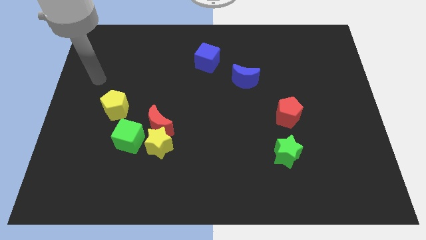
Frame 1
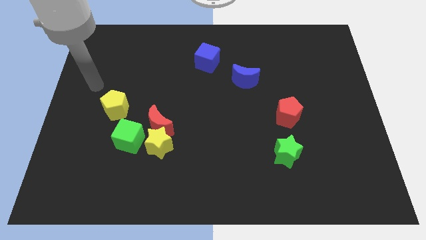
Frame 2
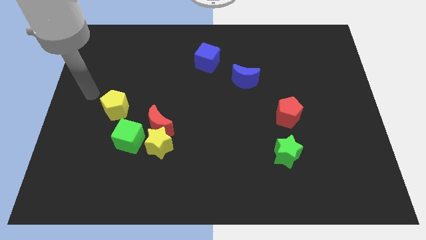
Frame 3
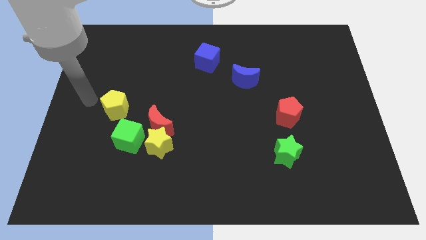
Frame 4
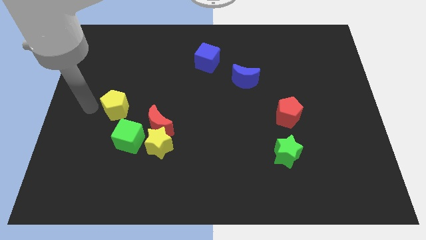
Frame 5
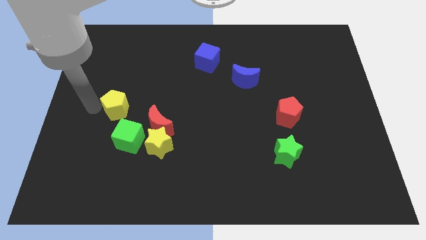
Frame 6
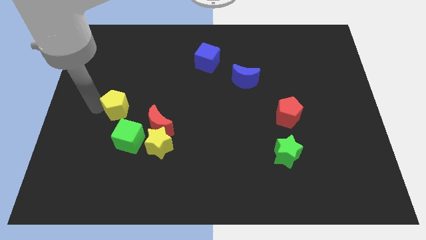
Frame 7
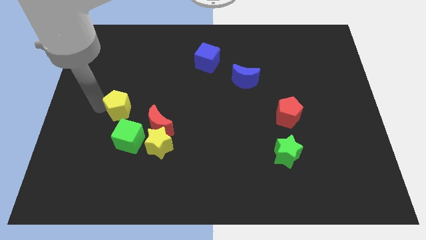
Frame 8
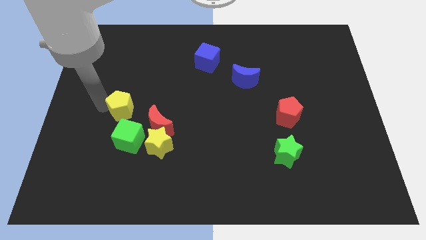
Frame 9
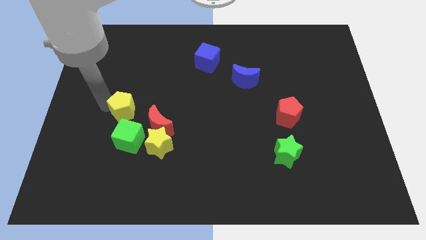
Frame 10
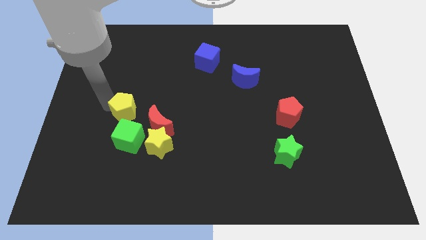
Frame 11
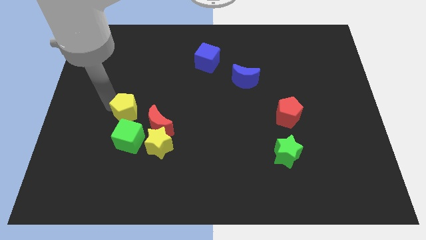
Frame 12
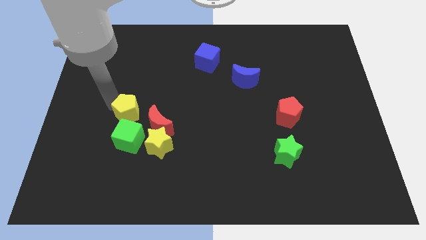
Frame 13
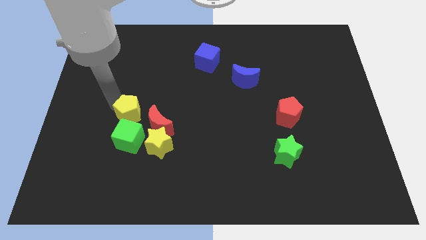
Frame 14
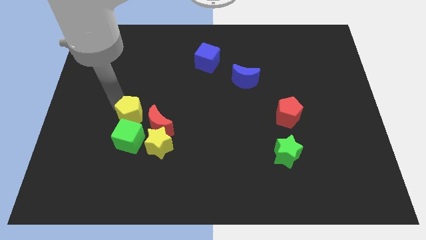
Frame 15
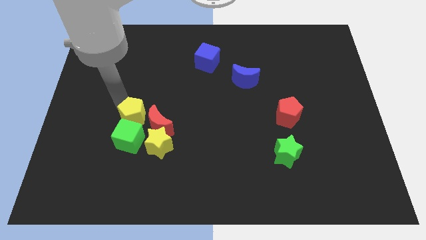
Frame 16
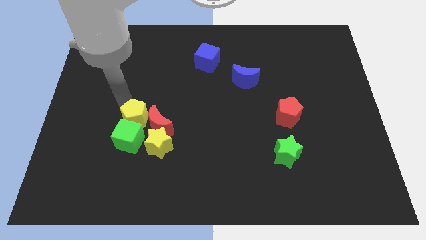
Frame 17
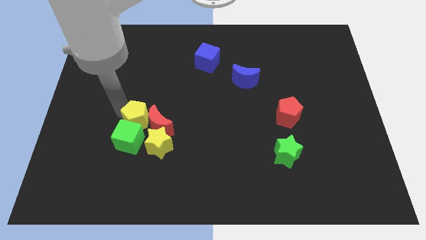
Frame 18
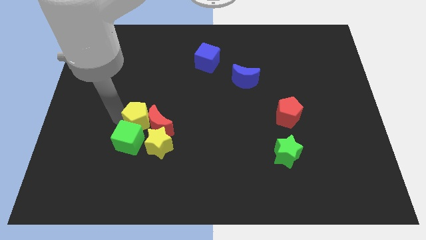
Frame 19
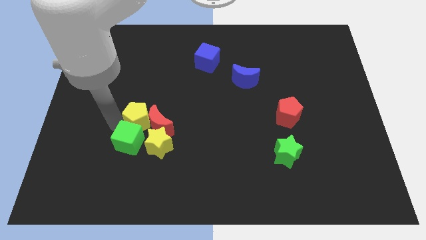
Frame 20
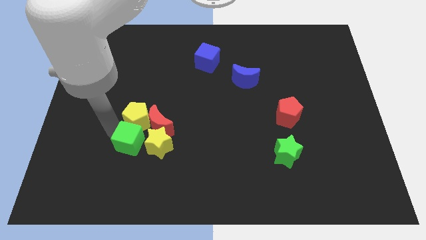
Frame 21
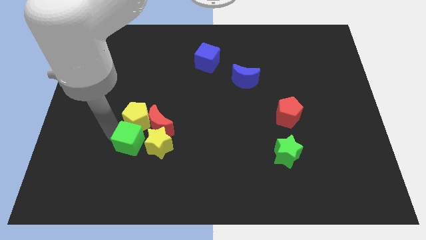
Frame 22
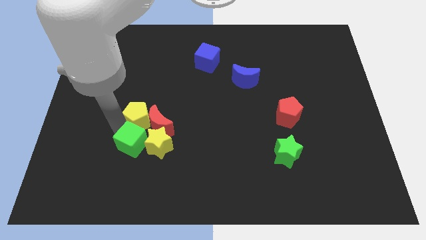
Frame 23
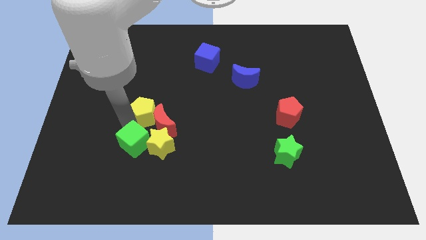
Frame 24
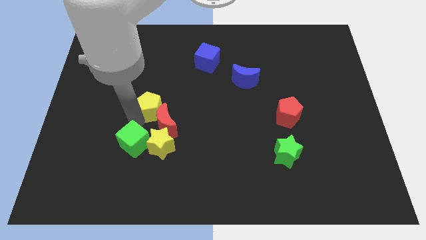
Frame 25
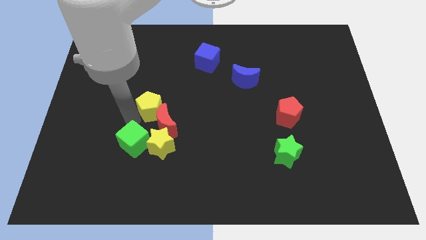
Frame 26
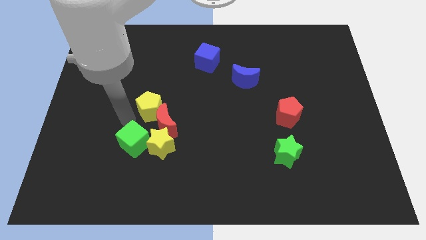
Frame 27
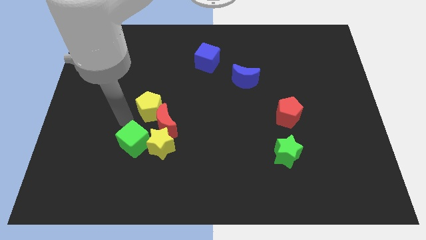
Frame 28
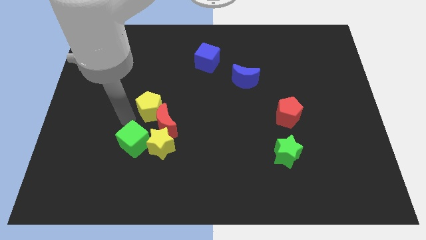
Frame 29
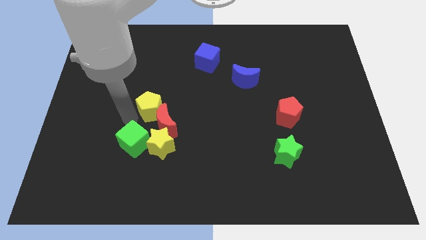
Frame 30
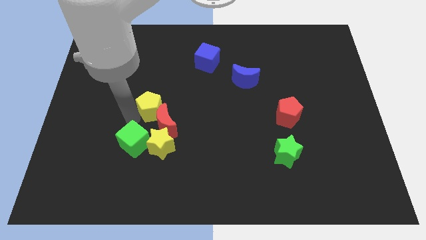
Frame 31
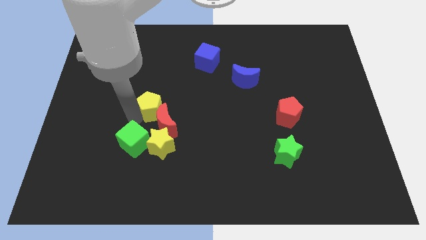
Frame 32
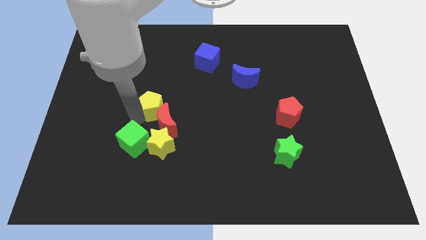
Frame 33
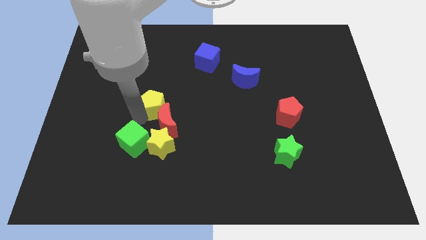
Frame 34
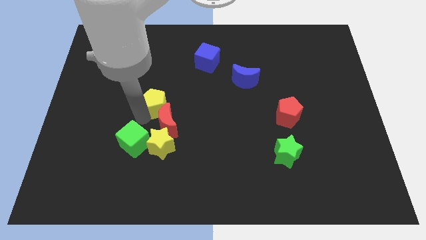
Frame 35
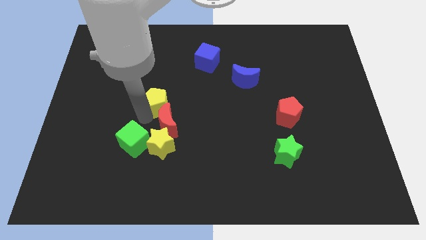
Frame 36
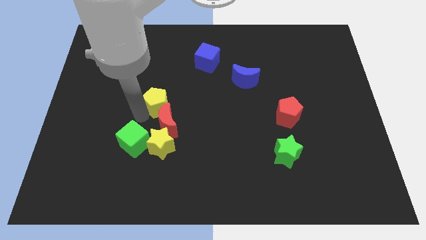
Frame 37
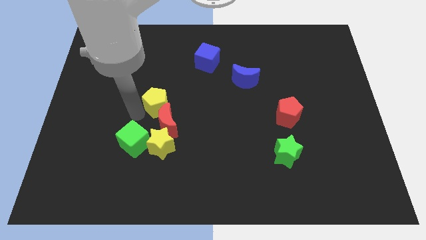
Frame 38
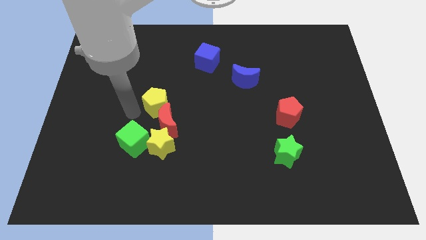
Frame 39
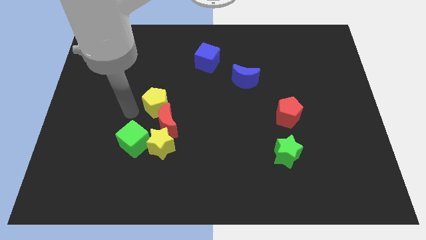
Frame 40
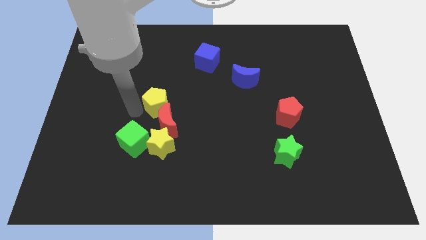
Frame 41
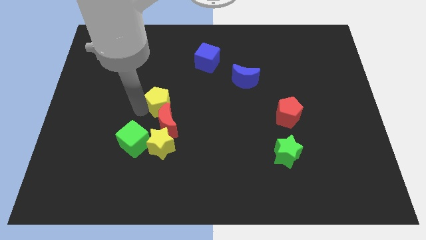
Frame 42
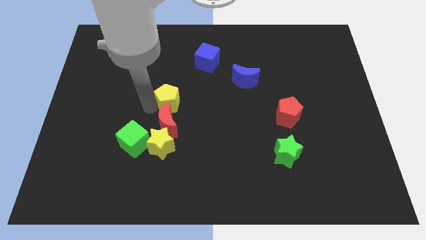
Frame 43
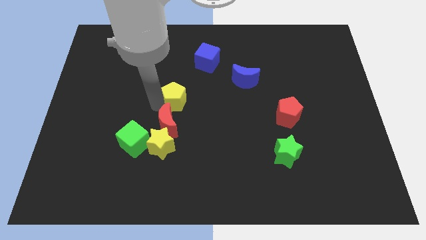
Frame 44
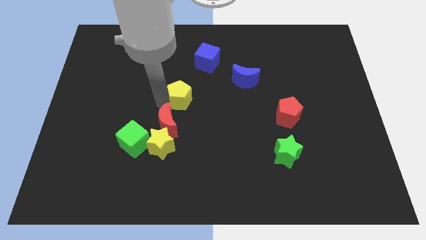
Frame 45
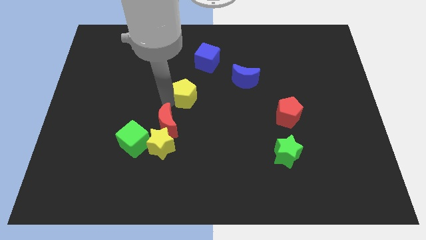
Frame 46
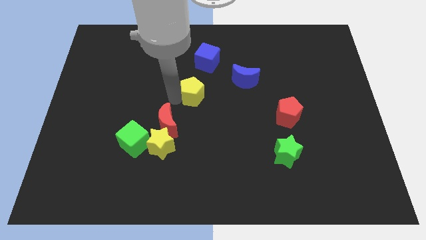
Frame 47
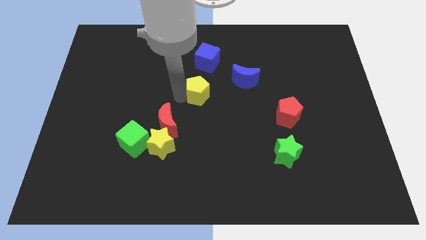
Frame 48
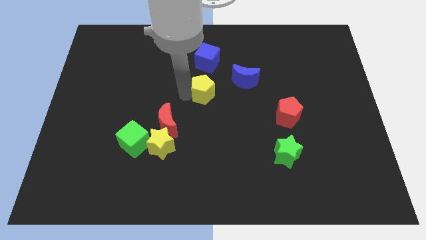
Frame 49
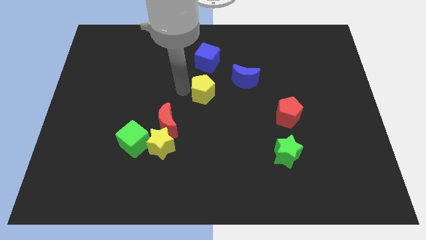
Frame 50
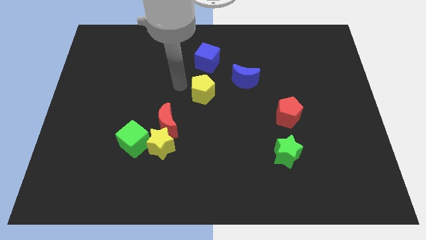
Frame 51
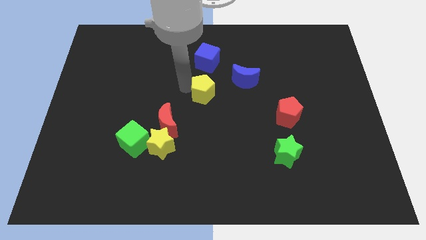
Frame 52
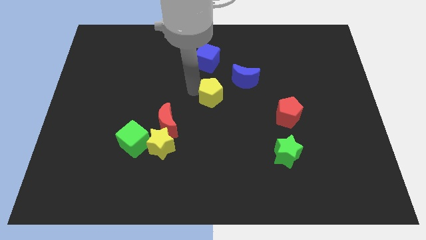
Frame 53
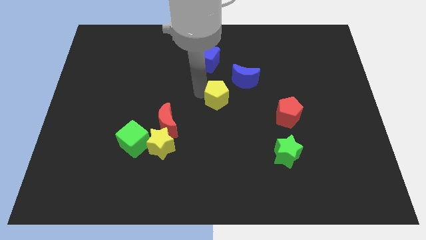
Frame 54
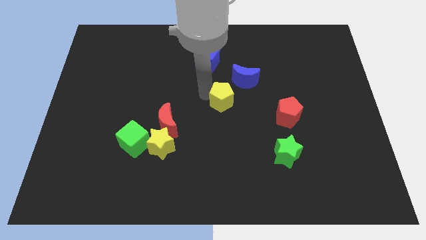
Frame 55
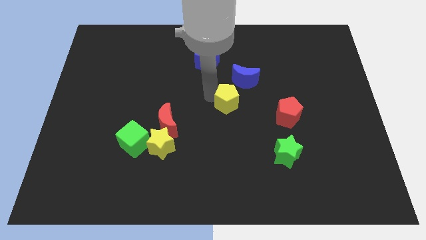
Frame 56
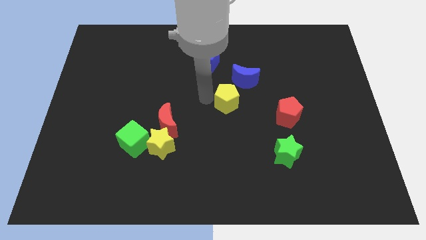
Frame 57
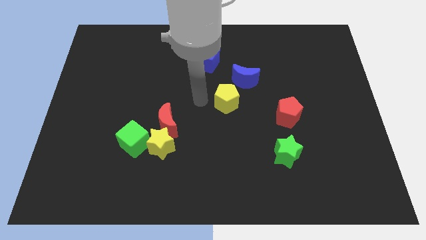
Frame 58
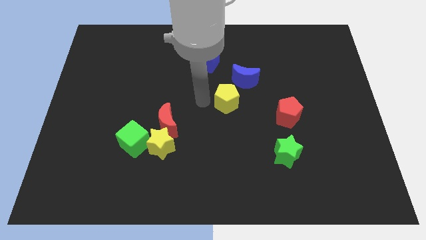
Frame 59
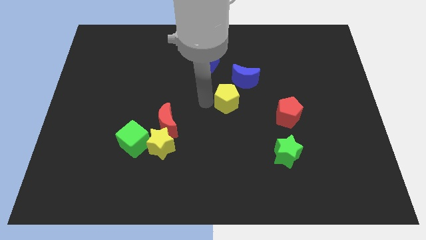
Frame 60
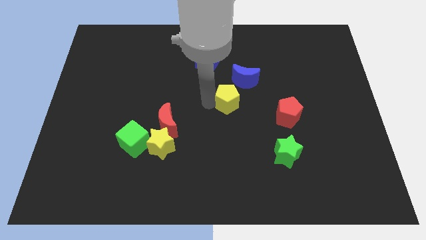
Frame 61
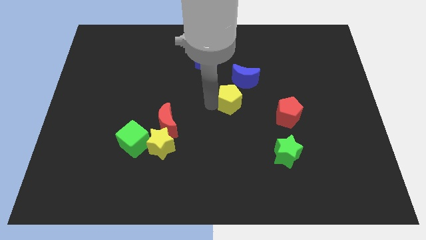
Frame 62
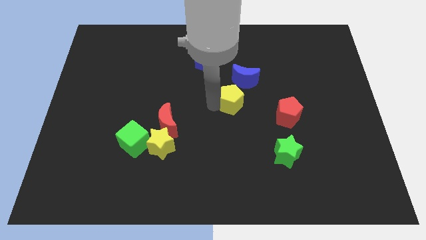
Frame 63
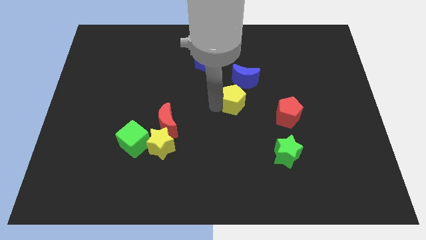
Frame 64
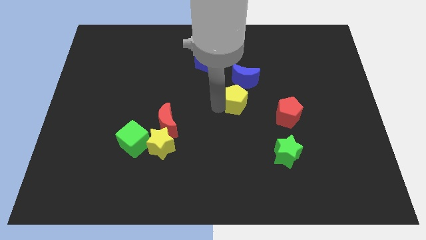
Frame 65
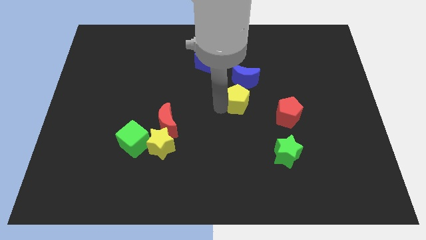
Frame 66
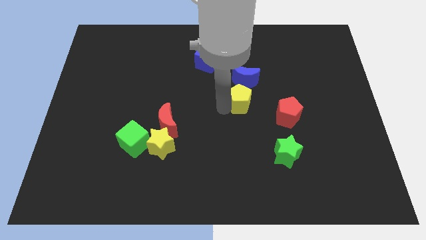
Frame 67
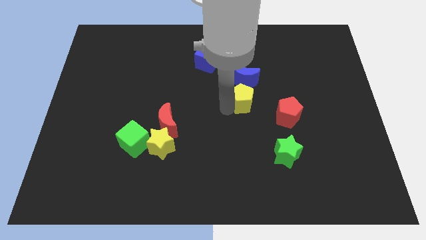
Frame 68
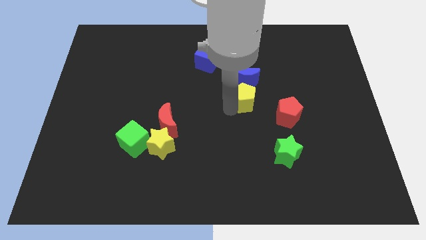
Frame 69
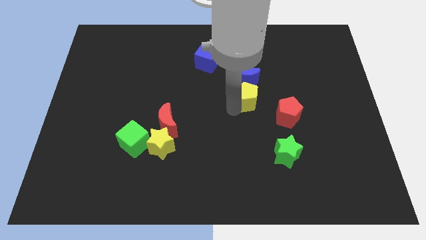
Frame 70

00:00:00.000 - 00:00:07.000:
slide the yellow pentagon diagonally down and to the right of the blue moon

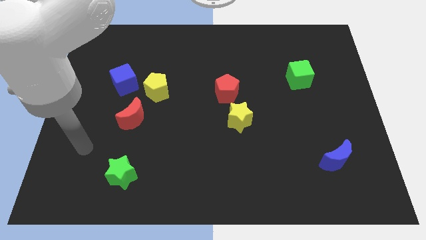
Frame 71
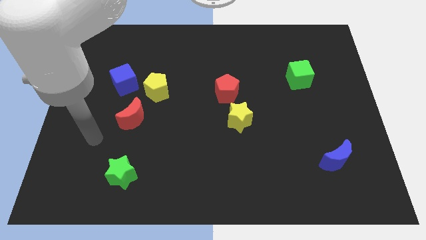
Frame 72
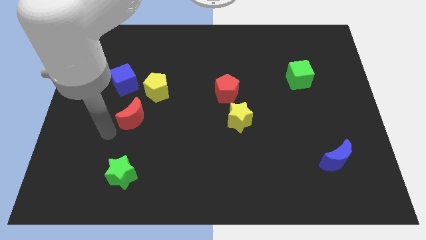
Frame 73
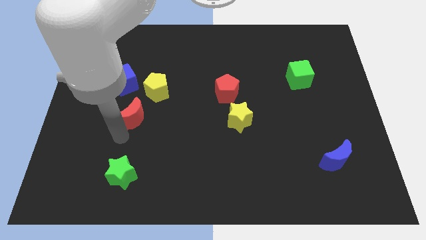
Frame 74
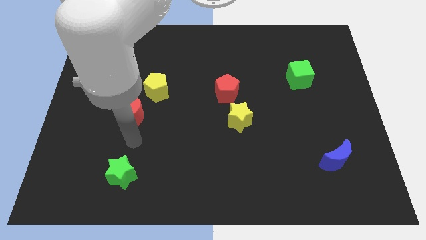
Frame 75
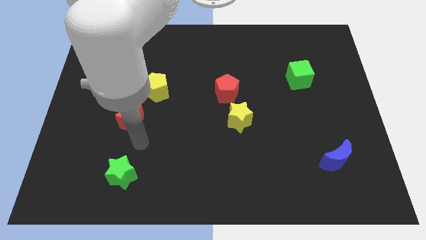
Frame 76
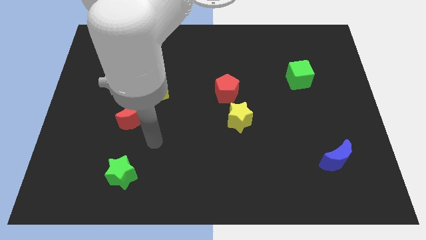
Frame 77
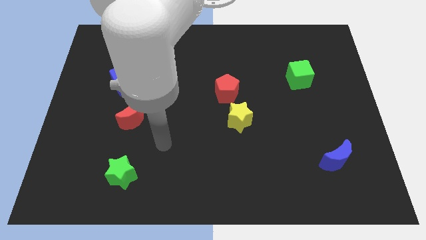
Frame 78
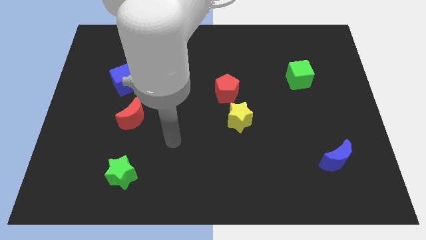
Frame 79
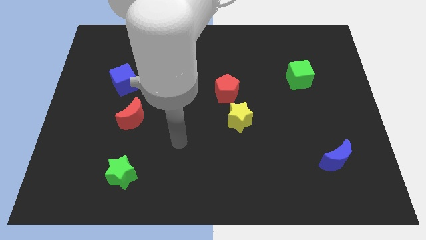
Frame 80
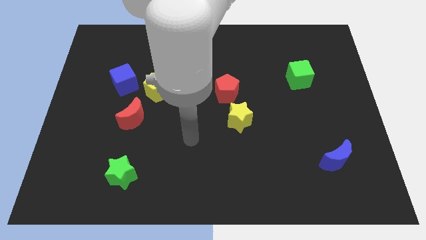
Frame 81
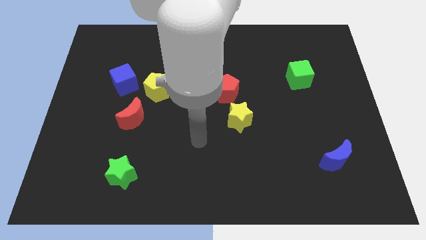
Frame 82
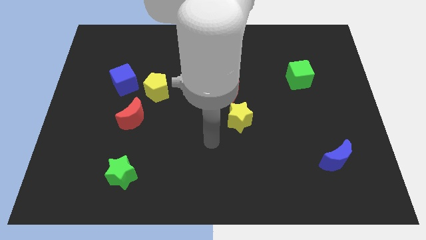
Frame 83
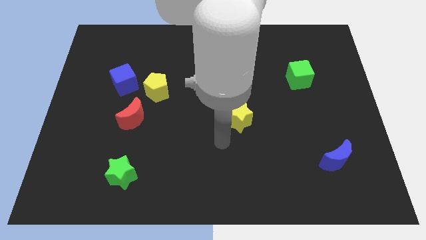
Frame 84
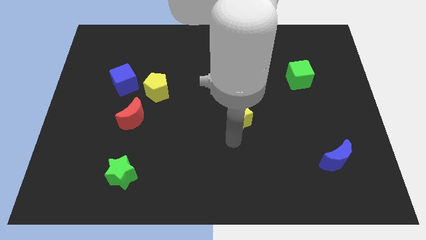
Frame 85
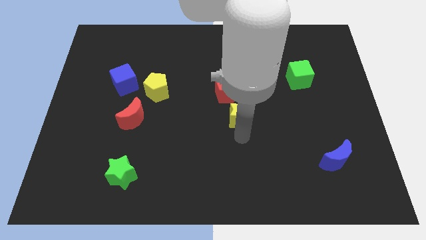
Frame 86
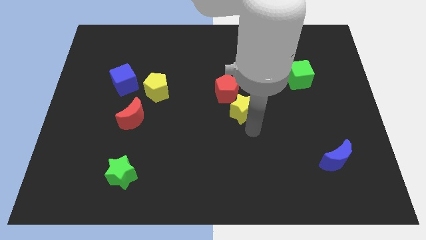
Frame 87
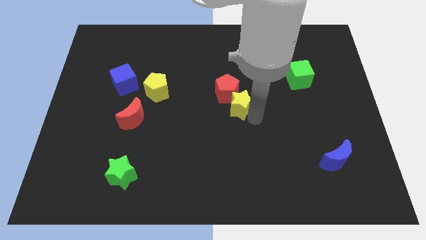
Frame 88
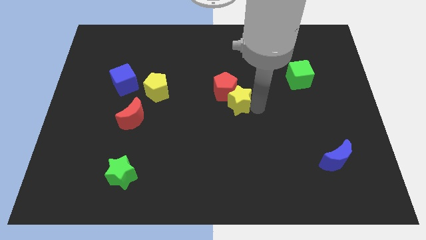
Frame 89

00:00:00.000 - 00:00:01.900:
move the red pentagon to the left of the yellow star
